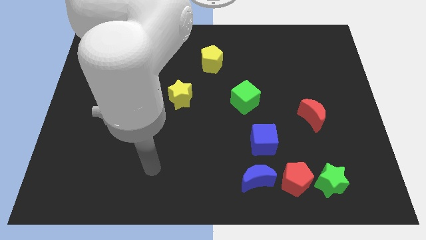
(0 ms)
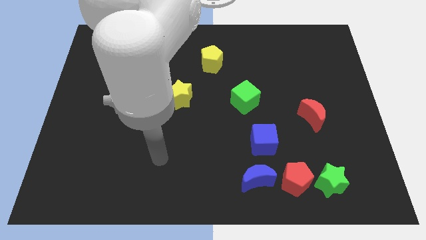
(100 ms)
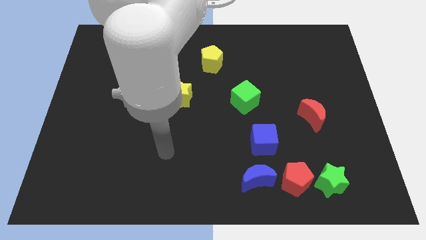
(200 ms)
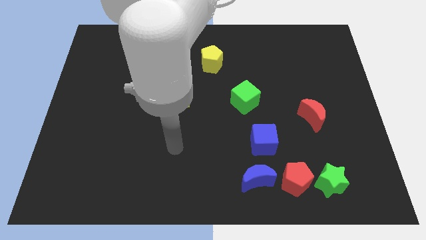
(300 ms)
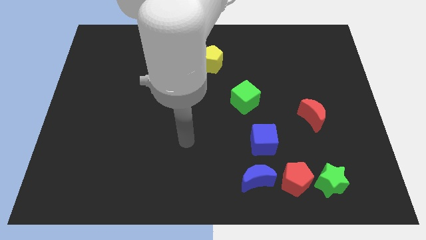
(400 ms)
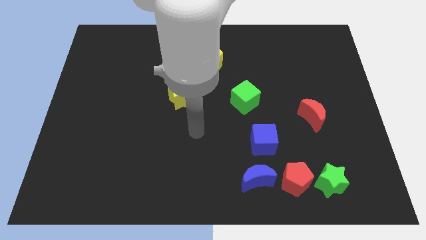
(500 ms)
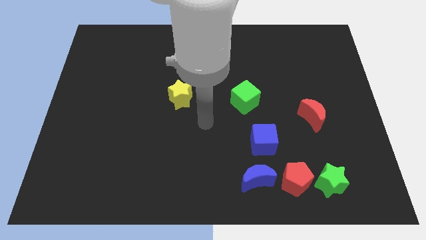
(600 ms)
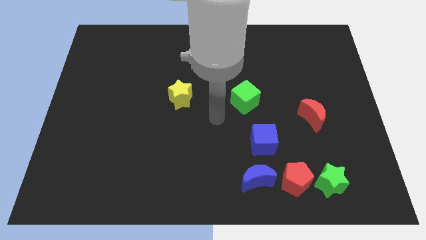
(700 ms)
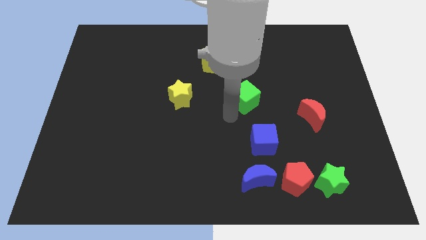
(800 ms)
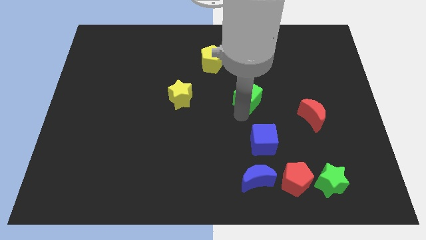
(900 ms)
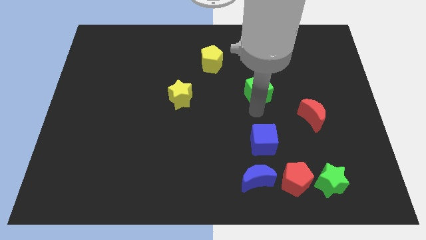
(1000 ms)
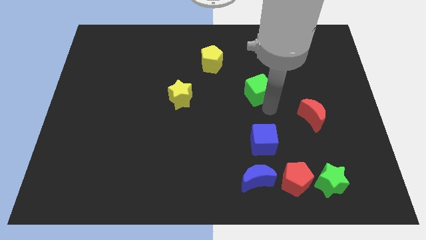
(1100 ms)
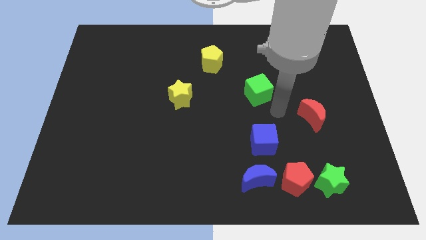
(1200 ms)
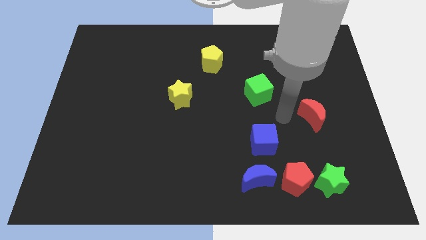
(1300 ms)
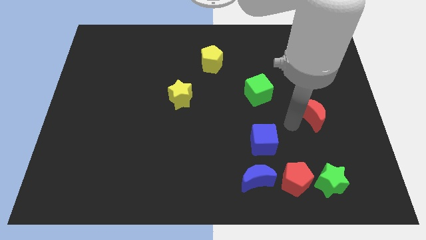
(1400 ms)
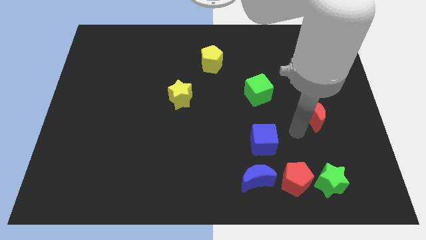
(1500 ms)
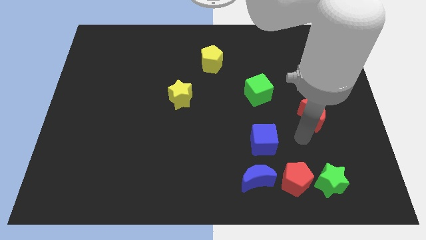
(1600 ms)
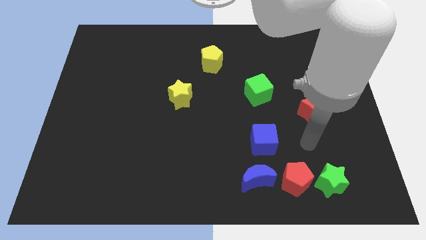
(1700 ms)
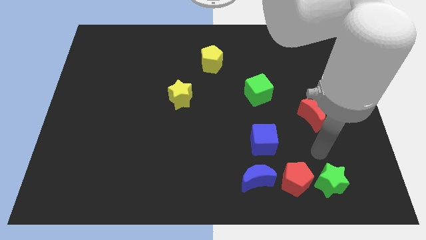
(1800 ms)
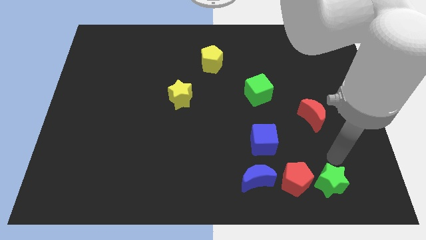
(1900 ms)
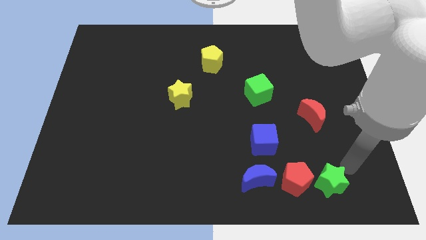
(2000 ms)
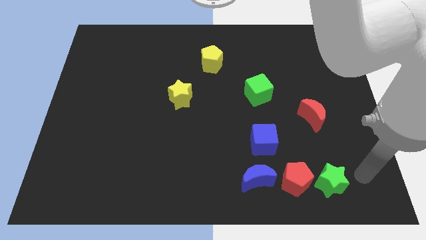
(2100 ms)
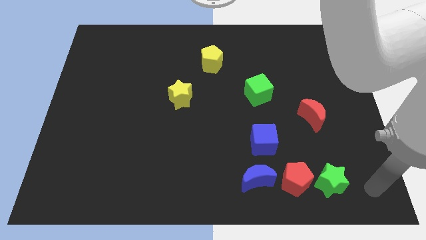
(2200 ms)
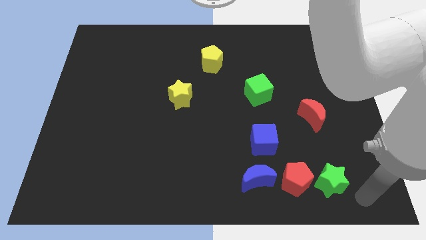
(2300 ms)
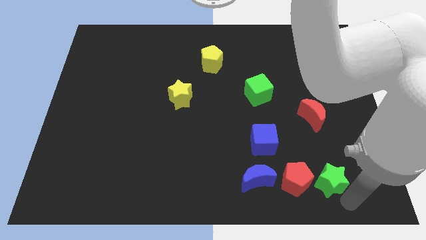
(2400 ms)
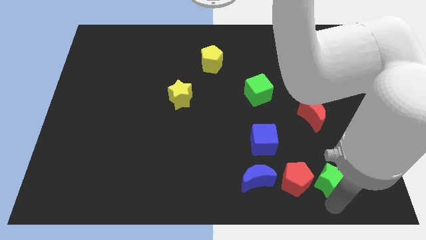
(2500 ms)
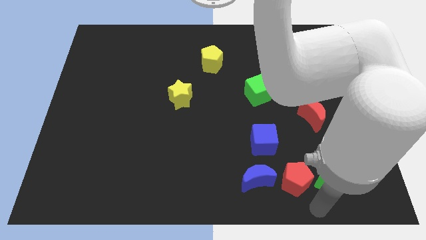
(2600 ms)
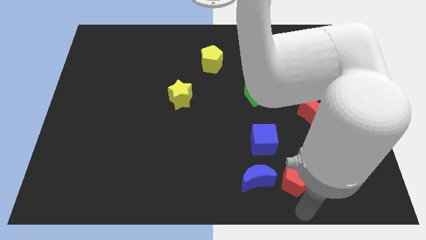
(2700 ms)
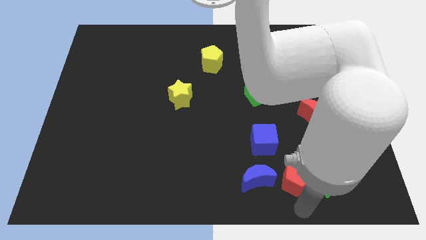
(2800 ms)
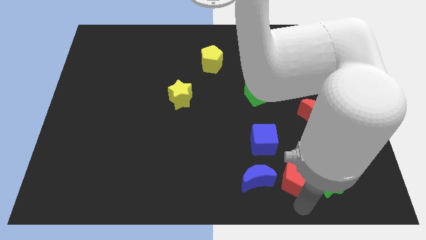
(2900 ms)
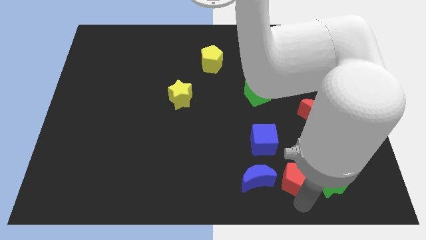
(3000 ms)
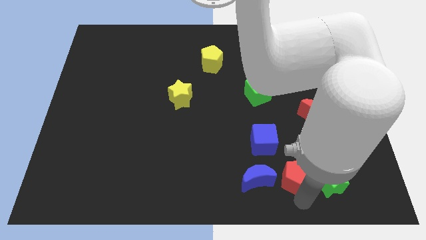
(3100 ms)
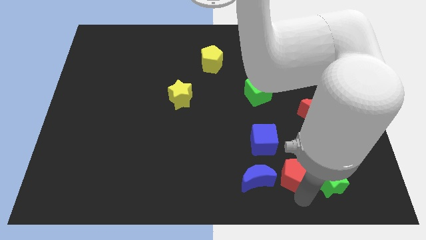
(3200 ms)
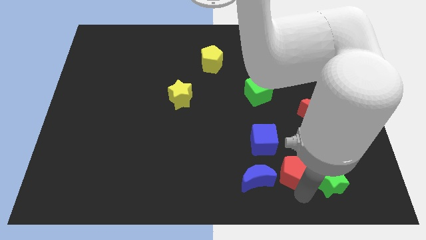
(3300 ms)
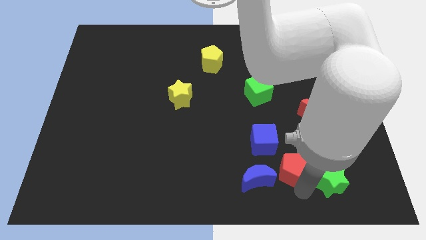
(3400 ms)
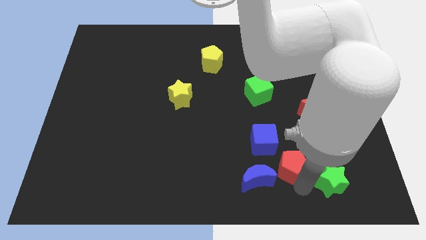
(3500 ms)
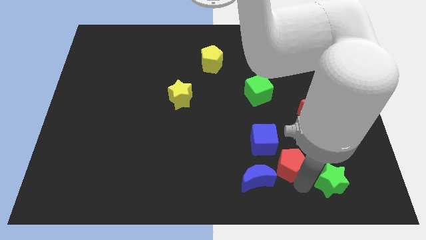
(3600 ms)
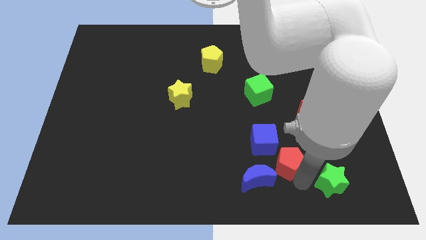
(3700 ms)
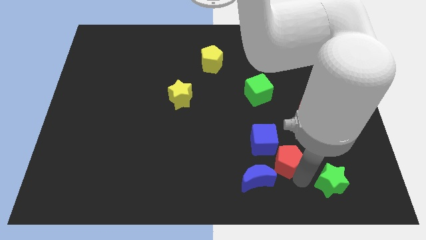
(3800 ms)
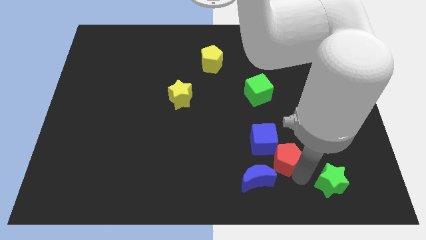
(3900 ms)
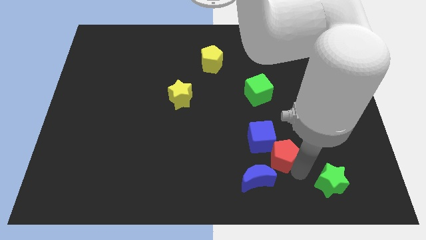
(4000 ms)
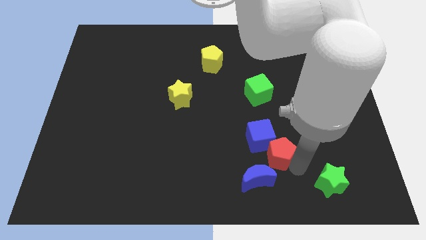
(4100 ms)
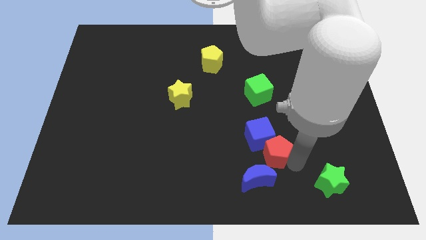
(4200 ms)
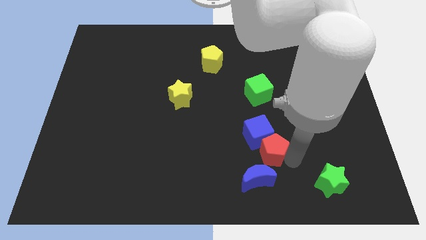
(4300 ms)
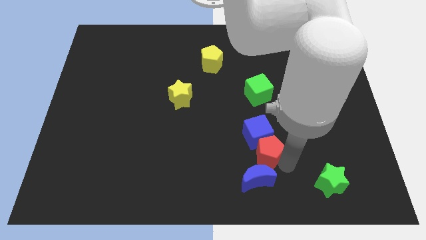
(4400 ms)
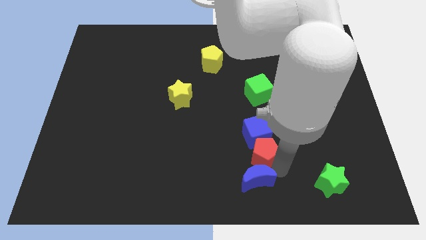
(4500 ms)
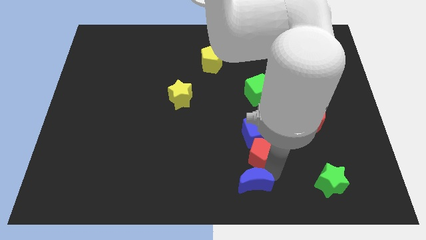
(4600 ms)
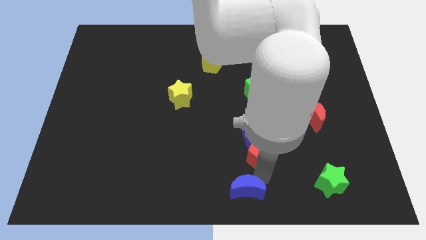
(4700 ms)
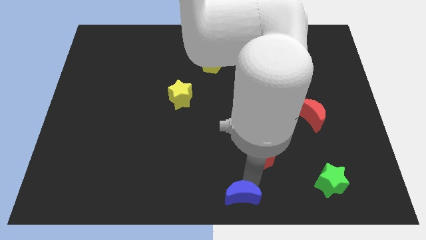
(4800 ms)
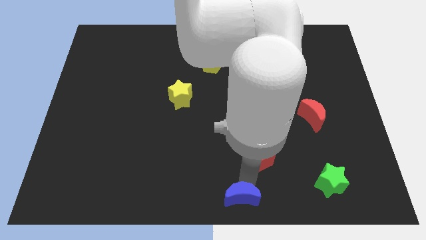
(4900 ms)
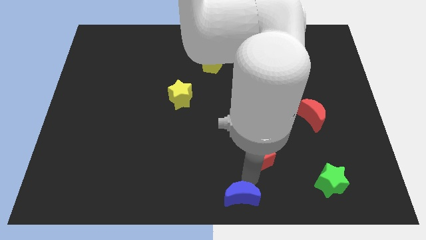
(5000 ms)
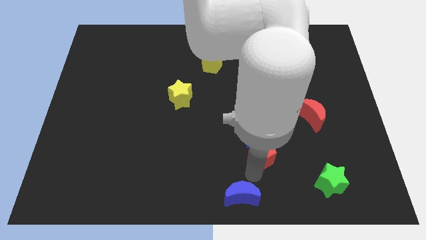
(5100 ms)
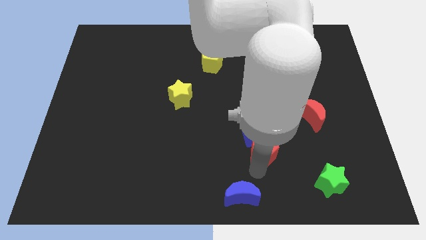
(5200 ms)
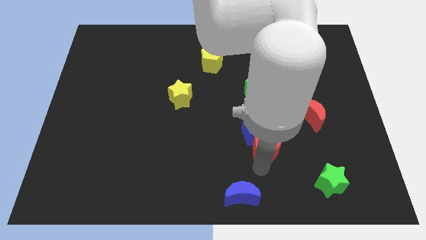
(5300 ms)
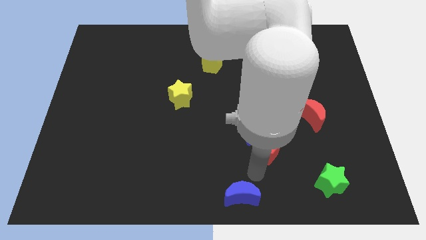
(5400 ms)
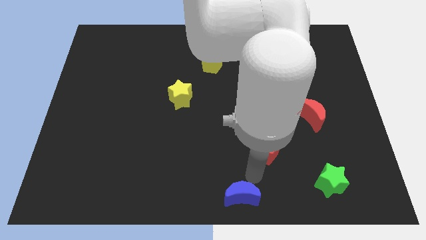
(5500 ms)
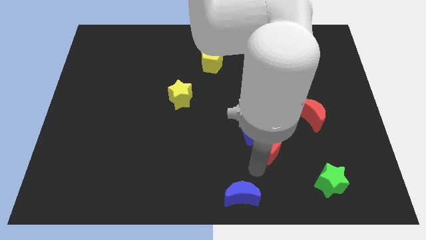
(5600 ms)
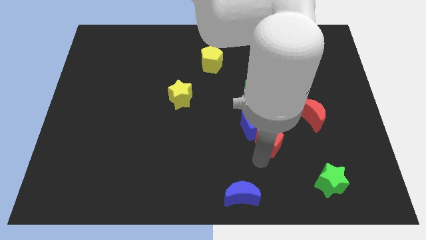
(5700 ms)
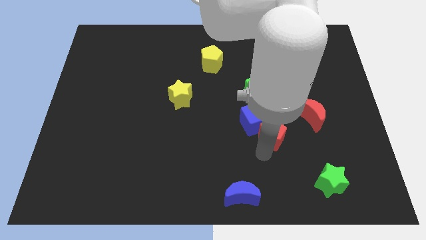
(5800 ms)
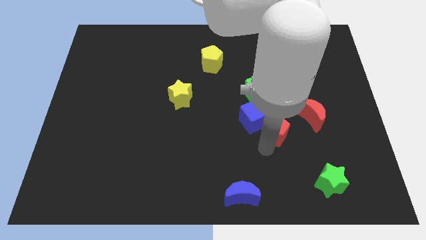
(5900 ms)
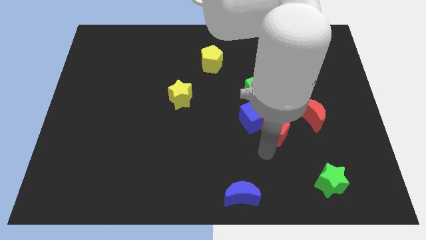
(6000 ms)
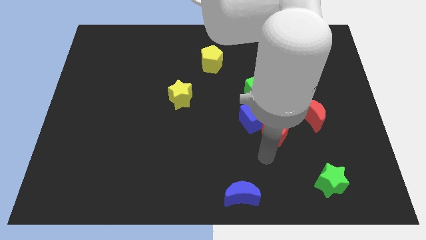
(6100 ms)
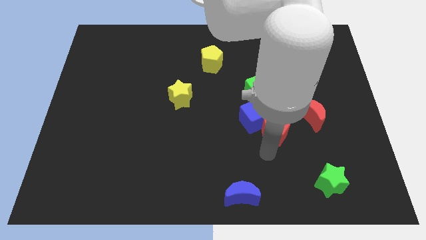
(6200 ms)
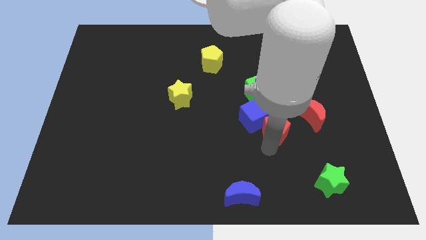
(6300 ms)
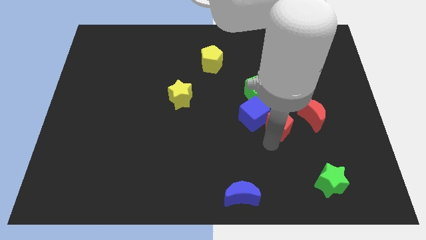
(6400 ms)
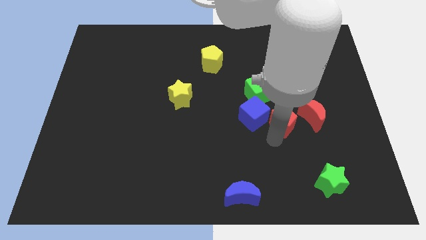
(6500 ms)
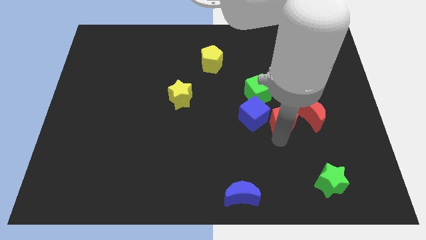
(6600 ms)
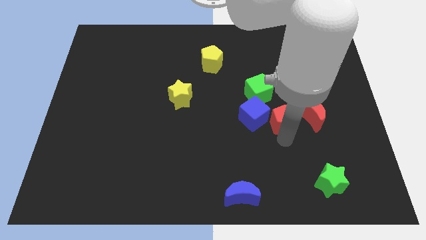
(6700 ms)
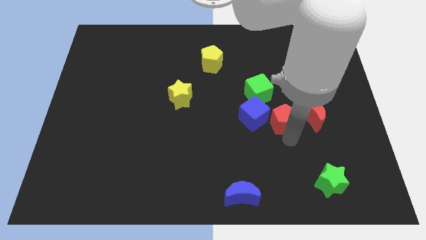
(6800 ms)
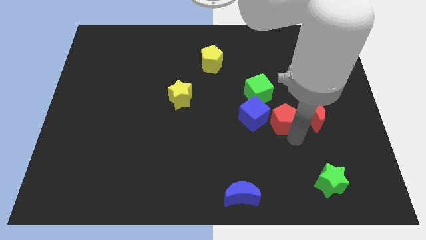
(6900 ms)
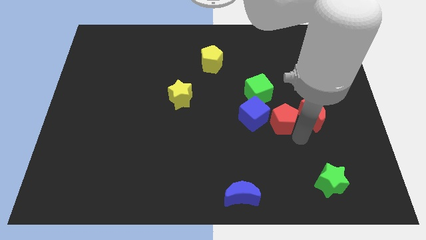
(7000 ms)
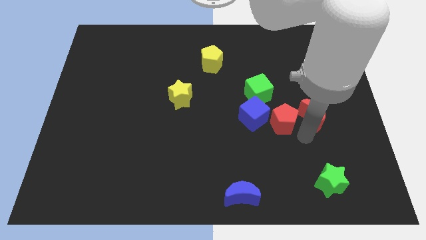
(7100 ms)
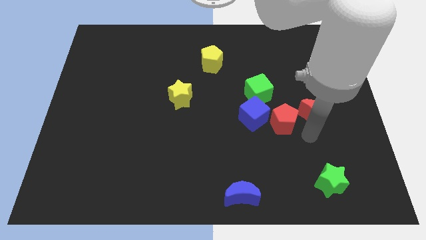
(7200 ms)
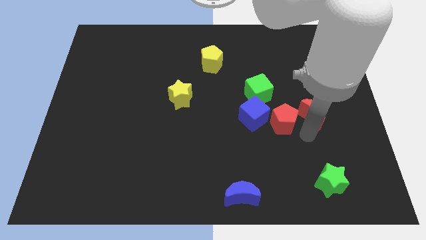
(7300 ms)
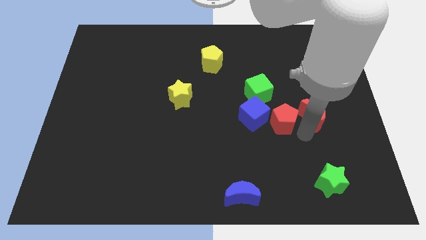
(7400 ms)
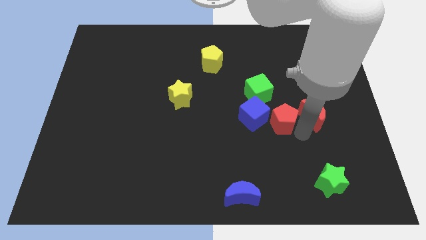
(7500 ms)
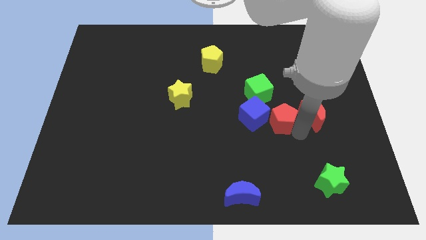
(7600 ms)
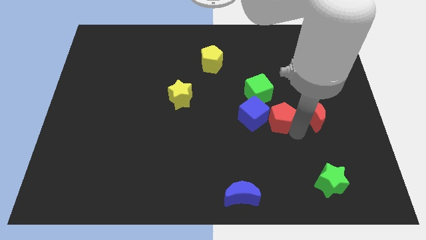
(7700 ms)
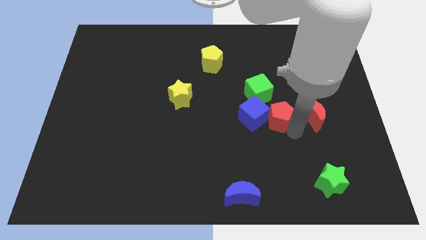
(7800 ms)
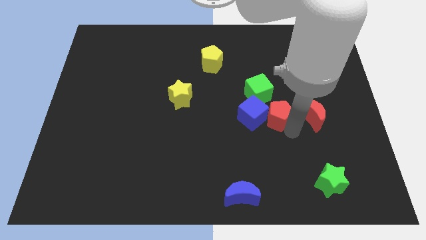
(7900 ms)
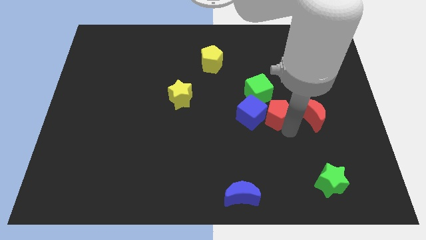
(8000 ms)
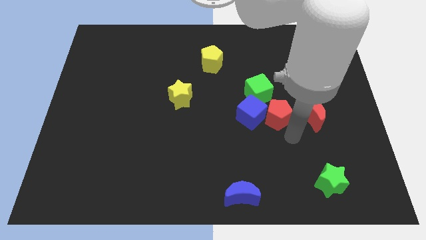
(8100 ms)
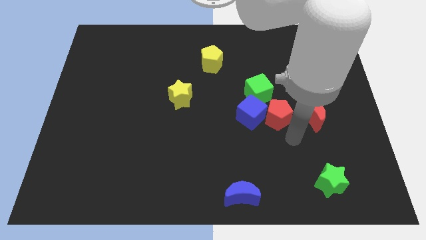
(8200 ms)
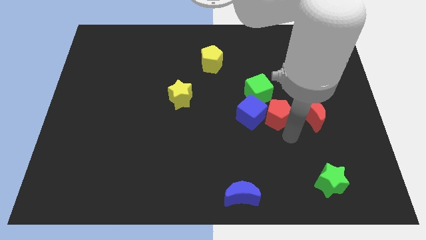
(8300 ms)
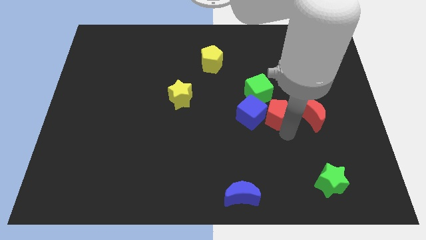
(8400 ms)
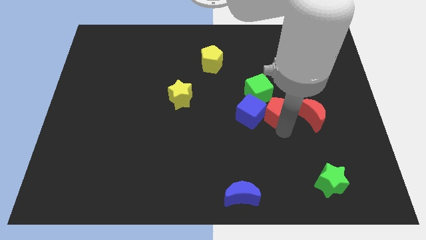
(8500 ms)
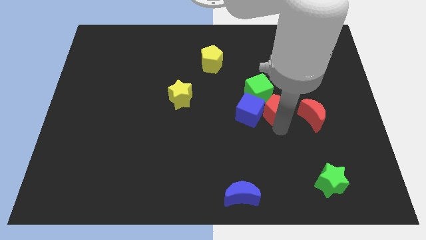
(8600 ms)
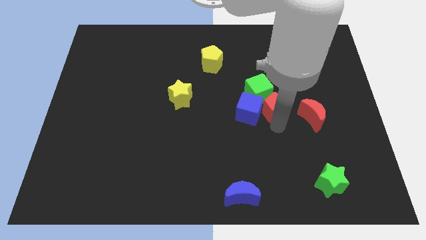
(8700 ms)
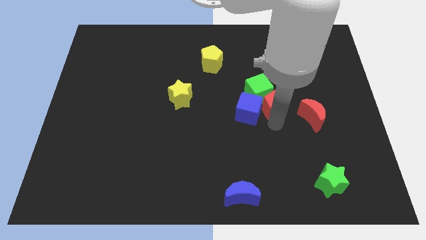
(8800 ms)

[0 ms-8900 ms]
push the red pentagon next to the green cube
